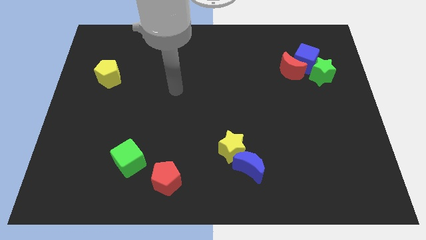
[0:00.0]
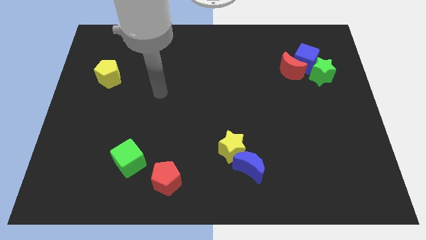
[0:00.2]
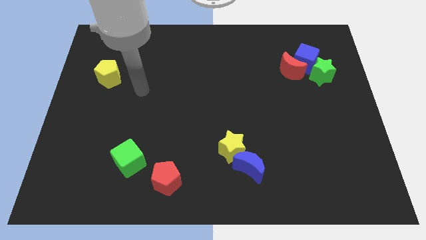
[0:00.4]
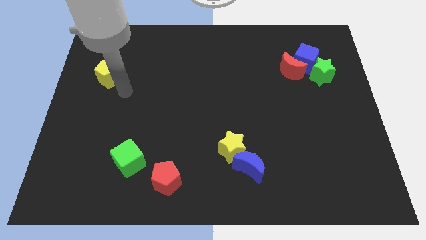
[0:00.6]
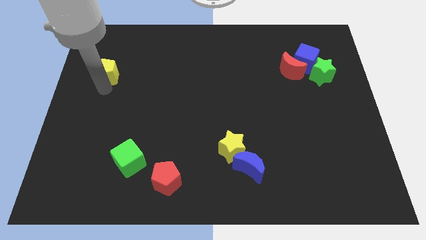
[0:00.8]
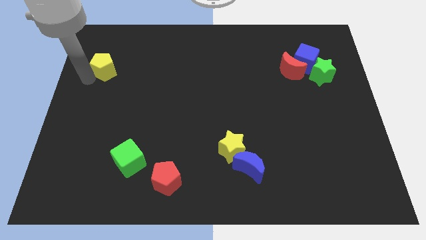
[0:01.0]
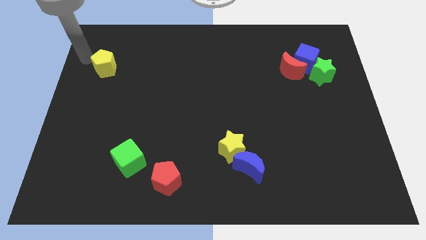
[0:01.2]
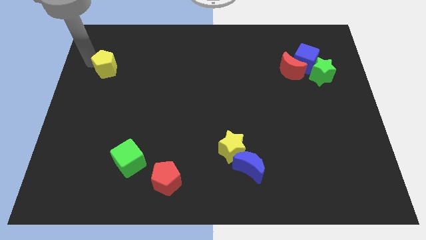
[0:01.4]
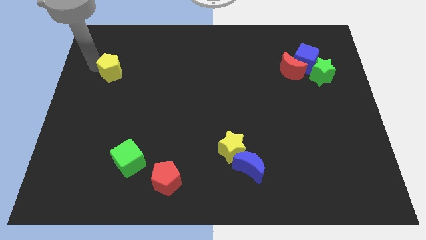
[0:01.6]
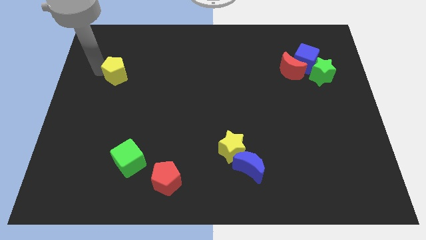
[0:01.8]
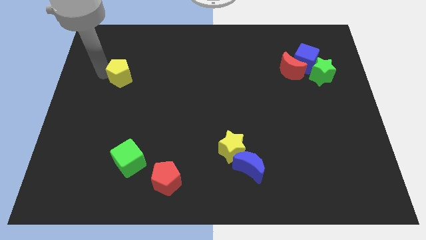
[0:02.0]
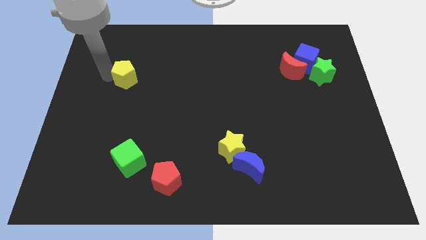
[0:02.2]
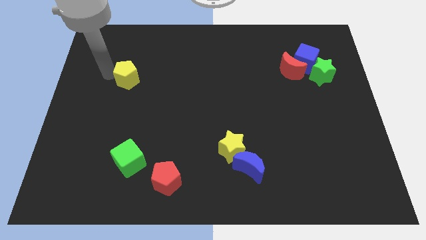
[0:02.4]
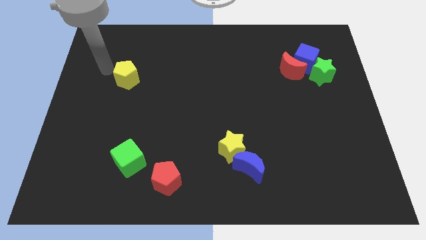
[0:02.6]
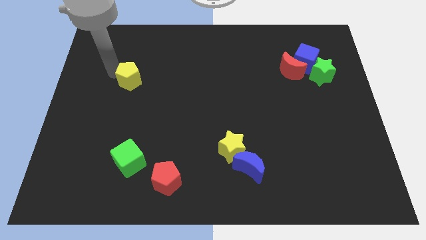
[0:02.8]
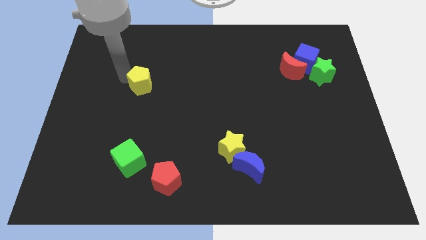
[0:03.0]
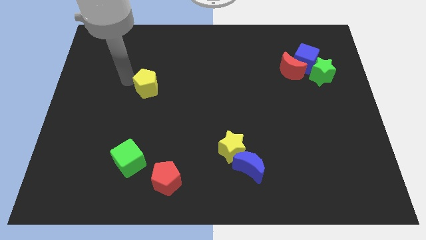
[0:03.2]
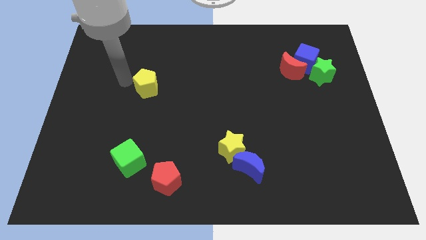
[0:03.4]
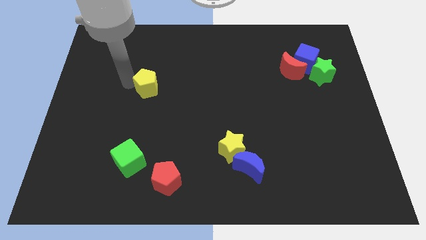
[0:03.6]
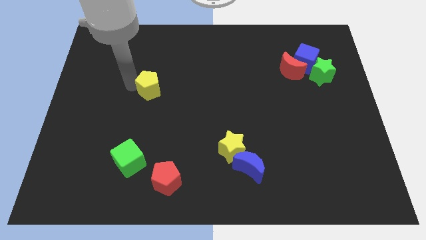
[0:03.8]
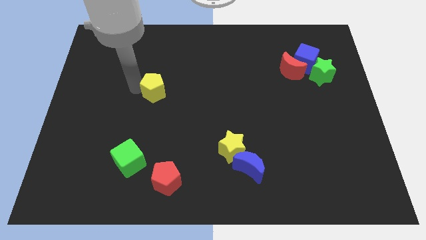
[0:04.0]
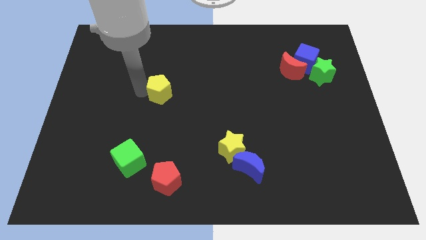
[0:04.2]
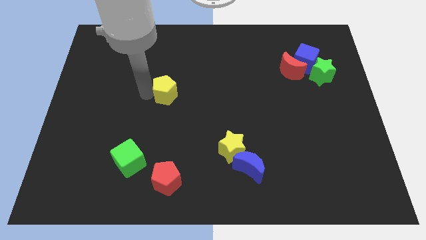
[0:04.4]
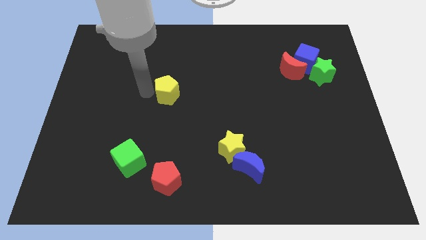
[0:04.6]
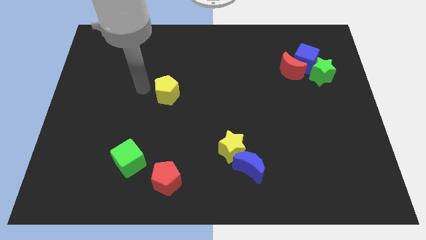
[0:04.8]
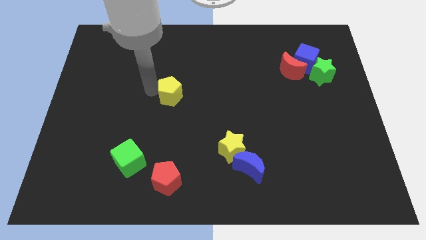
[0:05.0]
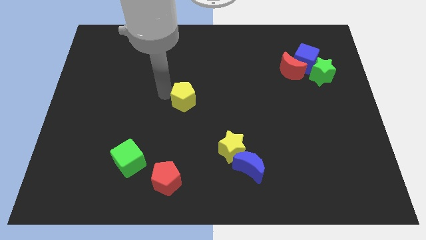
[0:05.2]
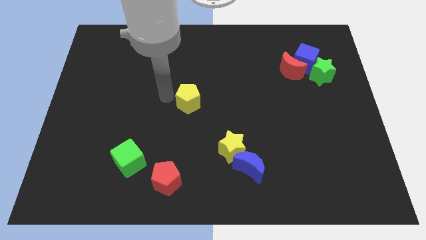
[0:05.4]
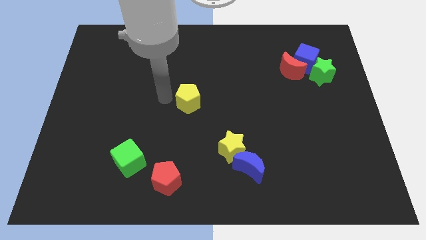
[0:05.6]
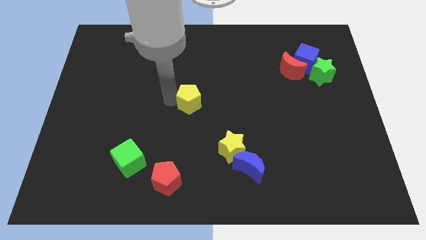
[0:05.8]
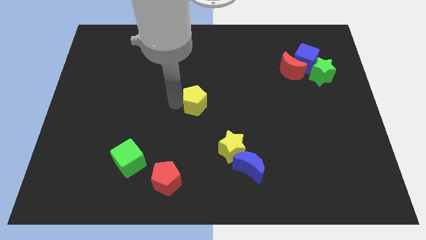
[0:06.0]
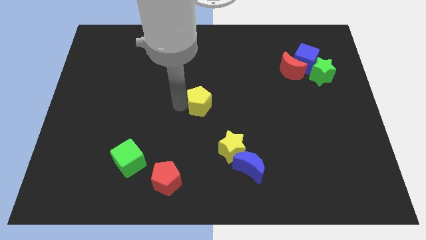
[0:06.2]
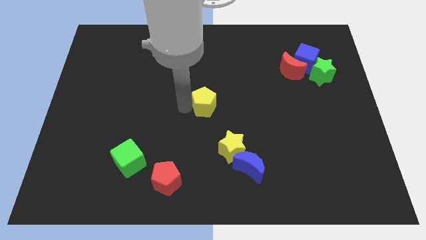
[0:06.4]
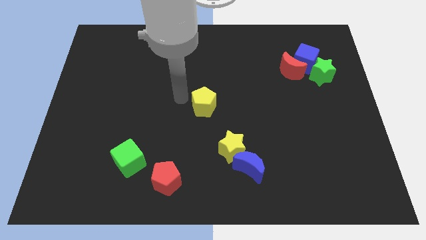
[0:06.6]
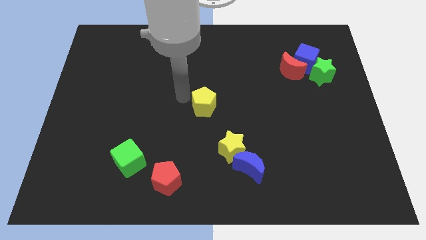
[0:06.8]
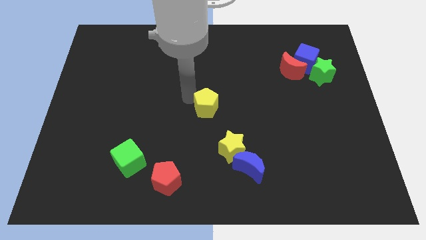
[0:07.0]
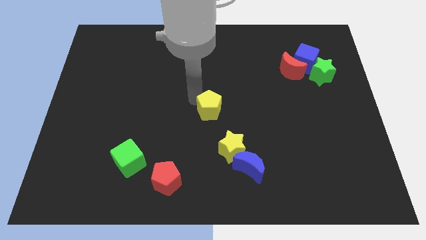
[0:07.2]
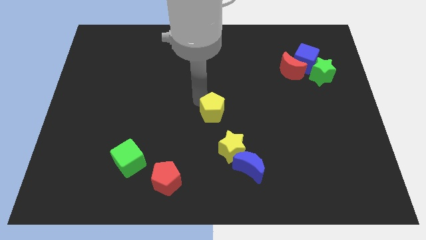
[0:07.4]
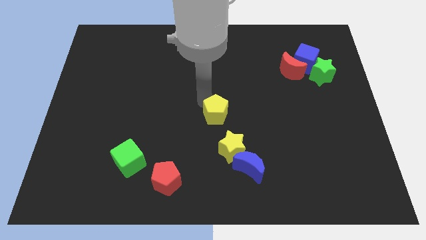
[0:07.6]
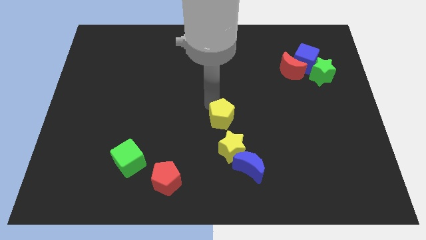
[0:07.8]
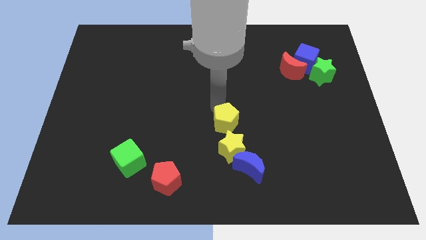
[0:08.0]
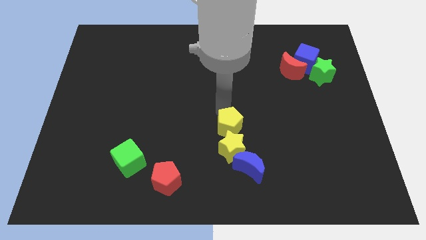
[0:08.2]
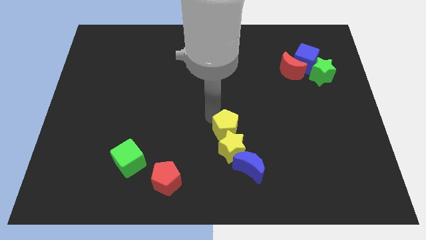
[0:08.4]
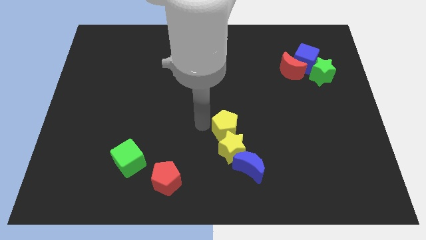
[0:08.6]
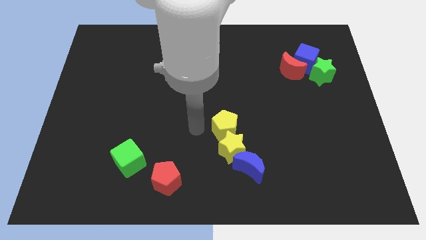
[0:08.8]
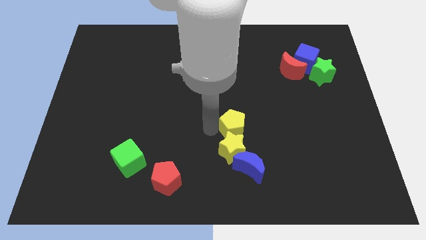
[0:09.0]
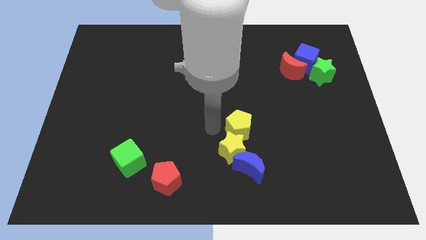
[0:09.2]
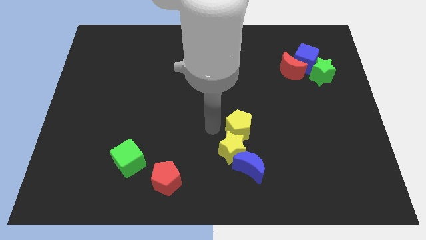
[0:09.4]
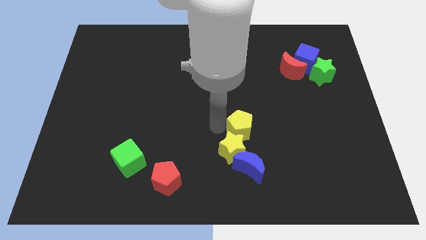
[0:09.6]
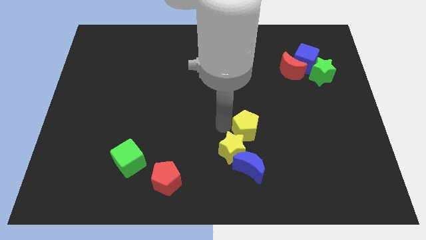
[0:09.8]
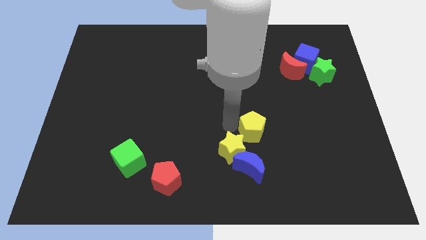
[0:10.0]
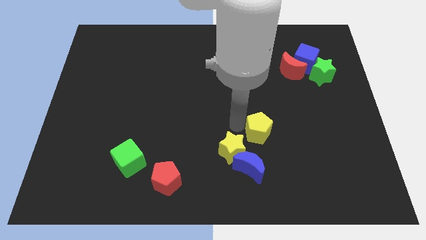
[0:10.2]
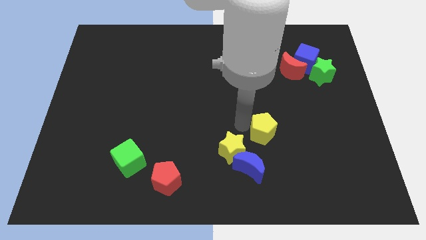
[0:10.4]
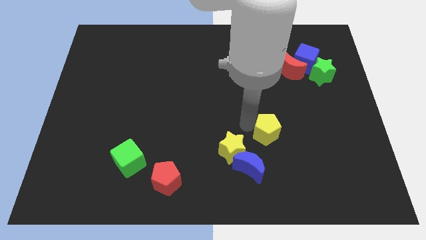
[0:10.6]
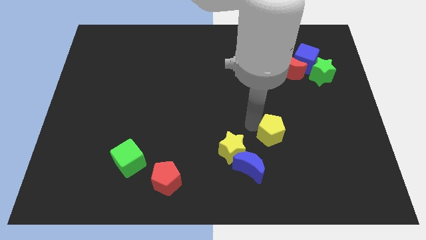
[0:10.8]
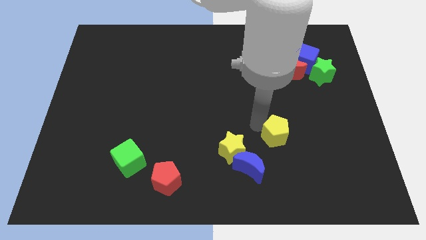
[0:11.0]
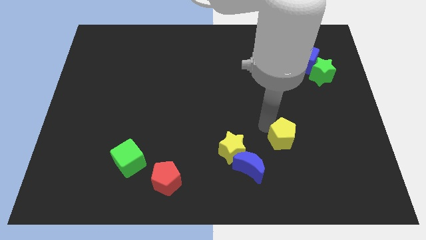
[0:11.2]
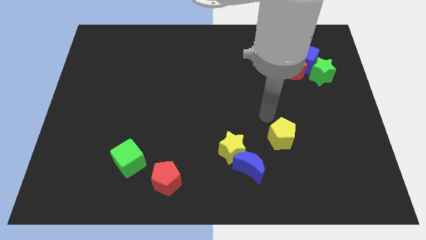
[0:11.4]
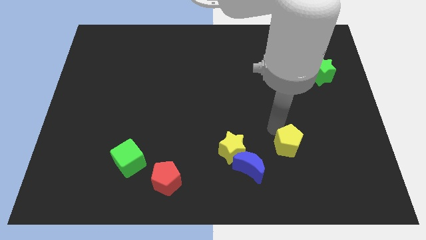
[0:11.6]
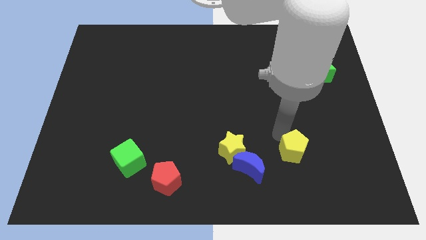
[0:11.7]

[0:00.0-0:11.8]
slide the yellow pentagon just right of the blue moon

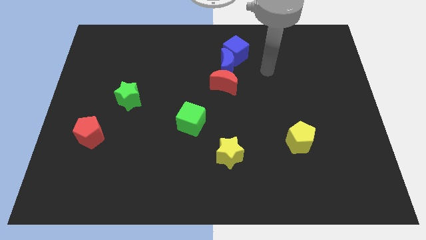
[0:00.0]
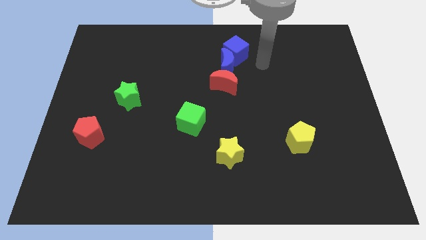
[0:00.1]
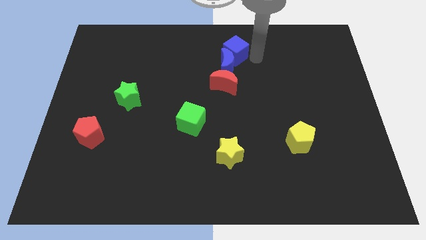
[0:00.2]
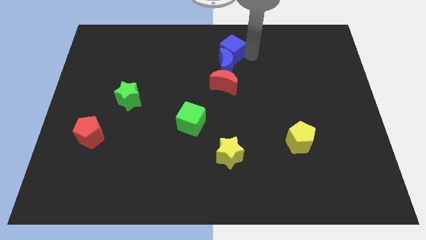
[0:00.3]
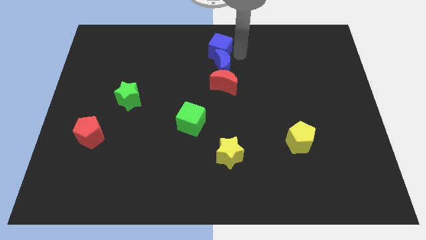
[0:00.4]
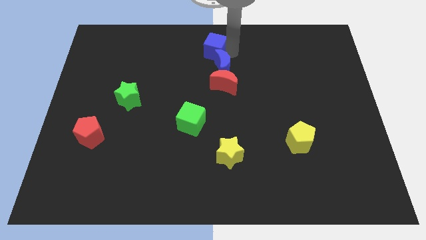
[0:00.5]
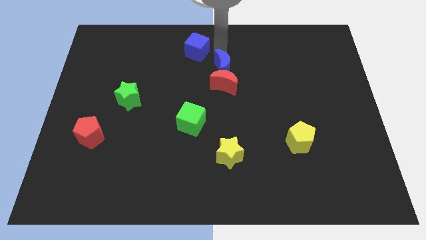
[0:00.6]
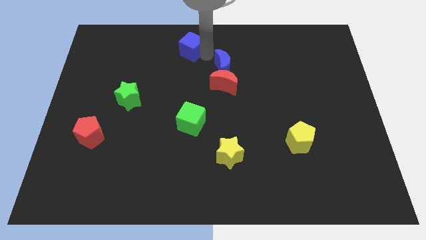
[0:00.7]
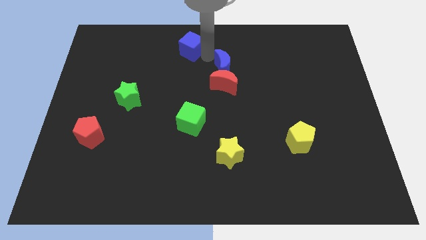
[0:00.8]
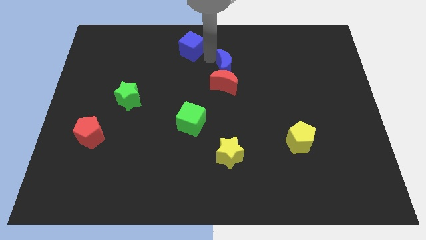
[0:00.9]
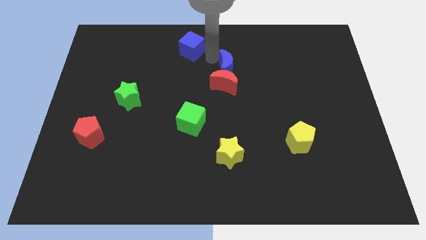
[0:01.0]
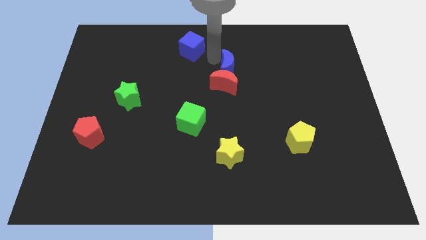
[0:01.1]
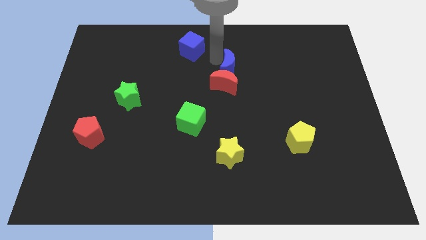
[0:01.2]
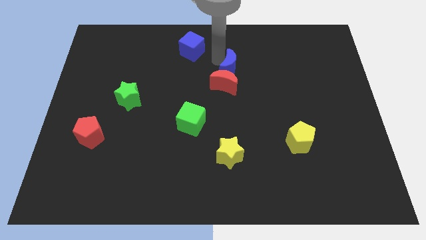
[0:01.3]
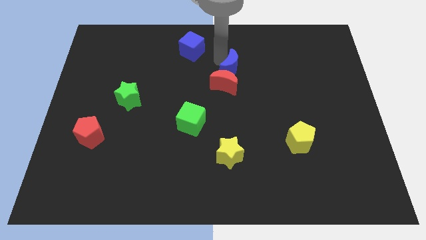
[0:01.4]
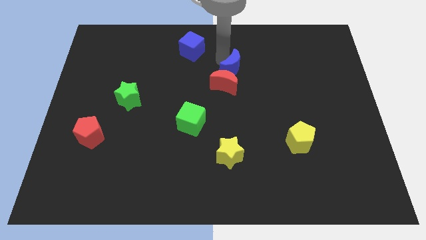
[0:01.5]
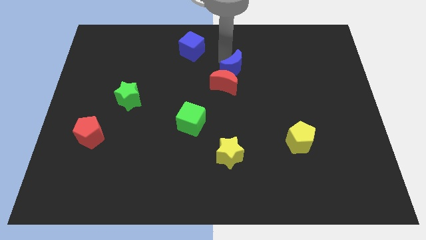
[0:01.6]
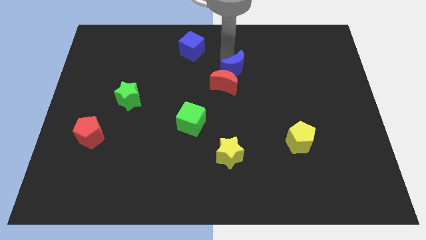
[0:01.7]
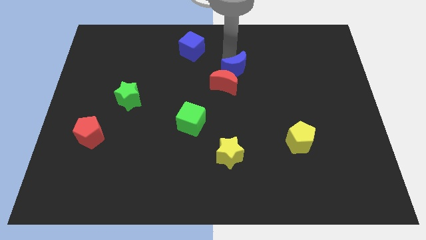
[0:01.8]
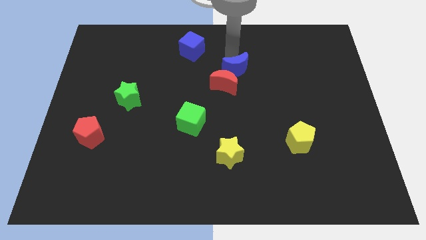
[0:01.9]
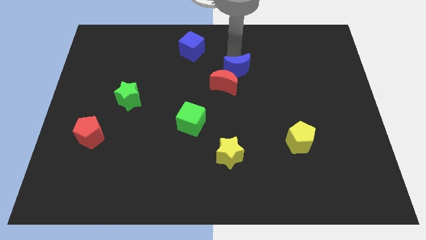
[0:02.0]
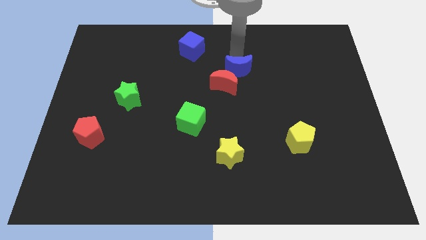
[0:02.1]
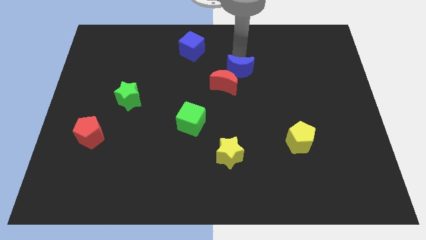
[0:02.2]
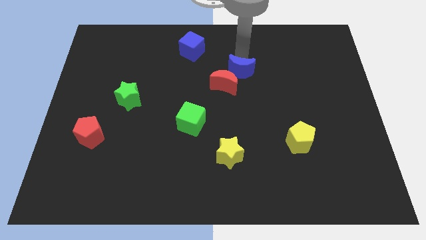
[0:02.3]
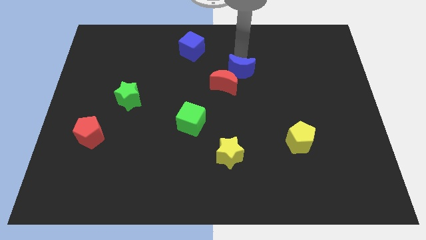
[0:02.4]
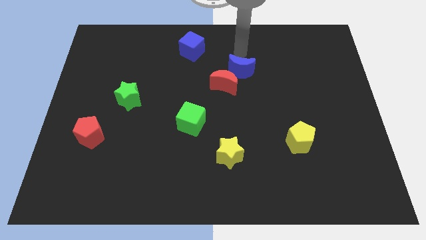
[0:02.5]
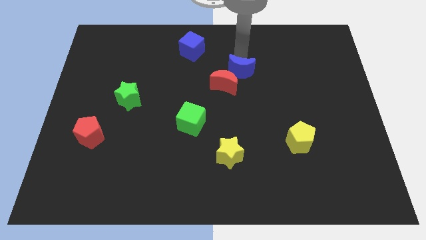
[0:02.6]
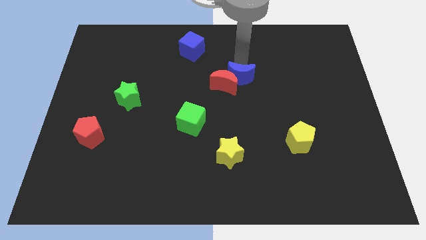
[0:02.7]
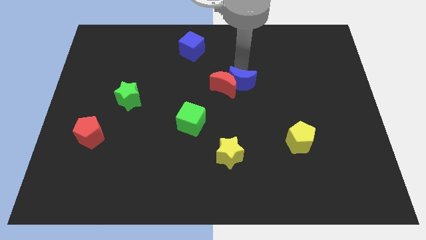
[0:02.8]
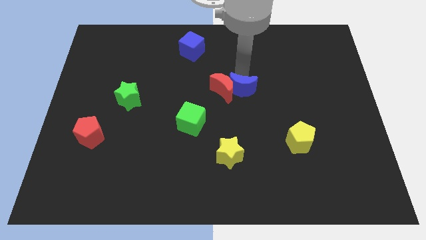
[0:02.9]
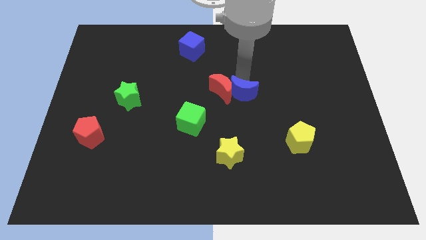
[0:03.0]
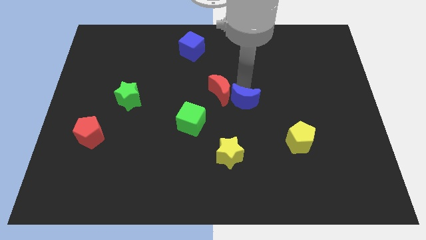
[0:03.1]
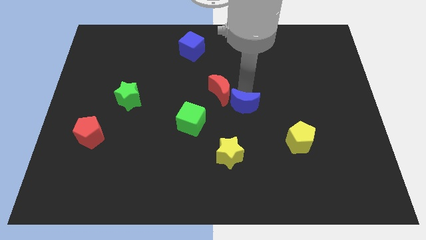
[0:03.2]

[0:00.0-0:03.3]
move the blue moon just right of the green cube
